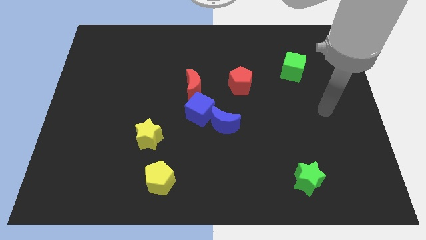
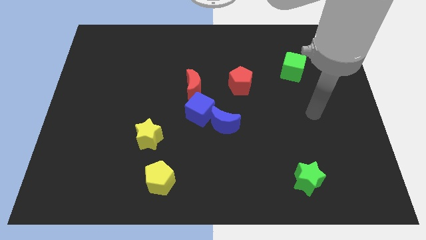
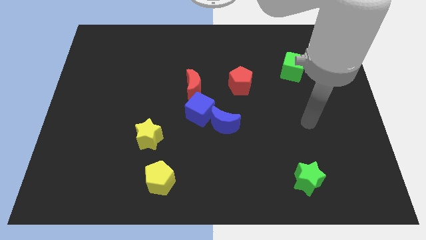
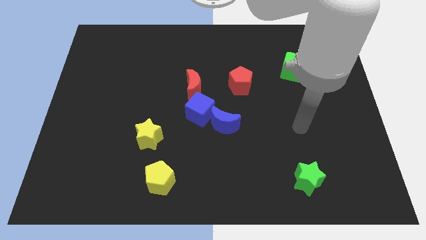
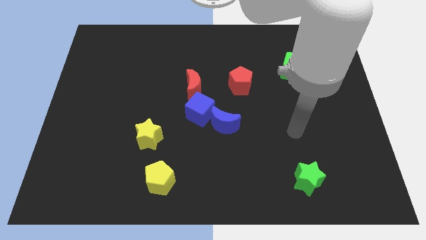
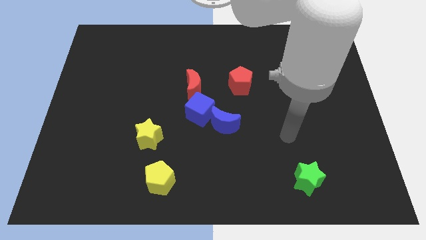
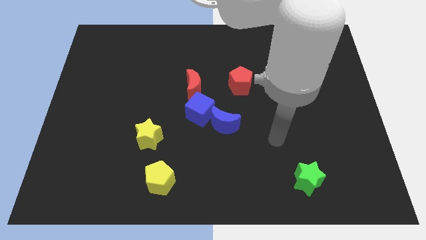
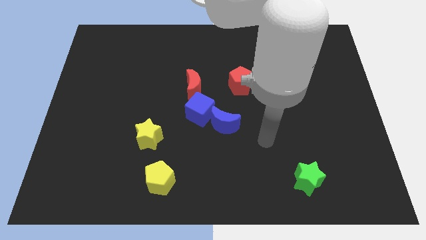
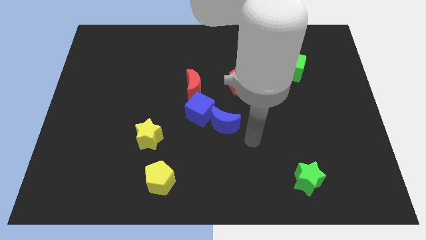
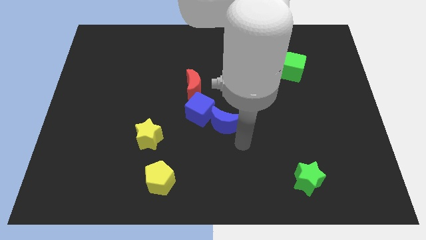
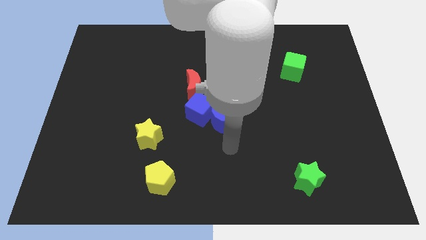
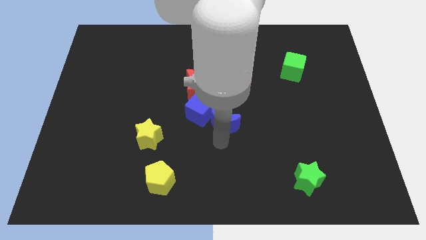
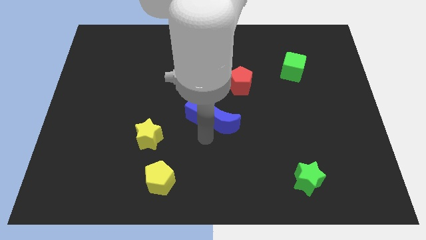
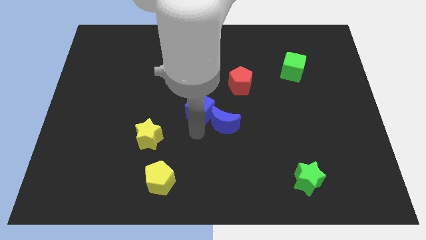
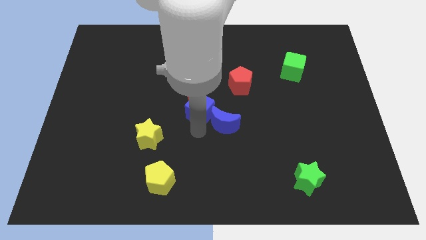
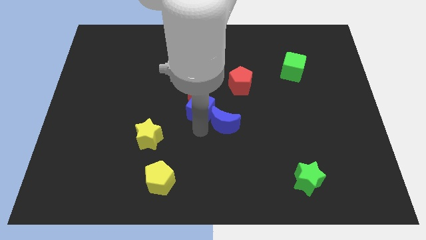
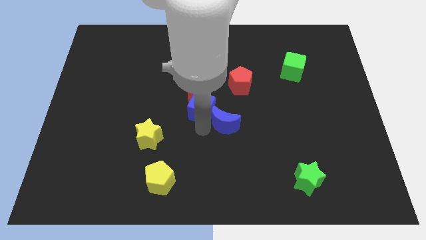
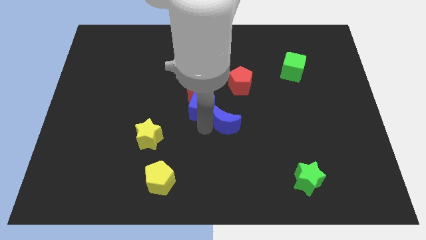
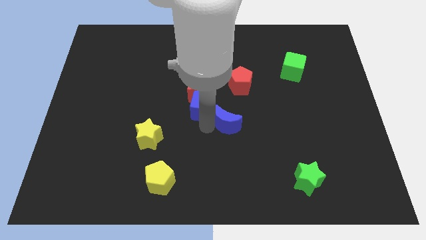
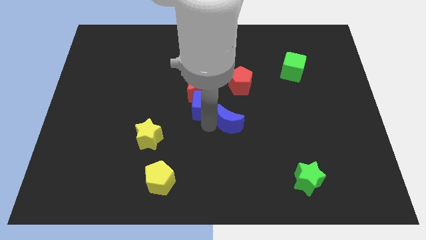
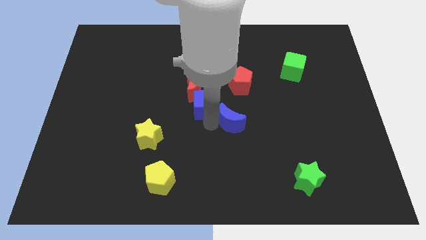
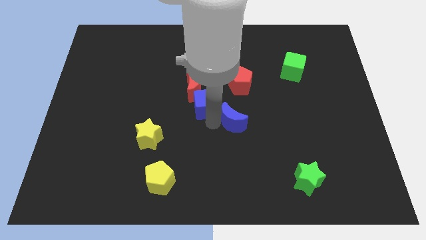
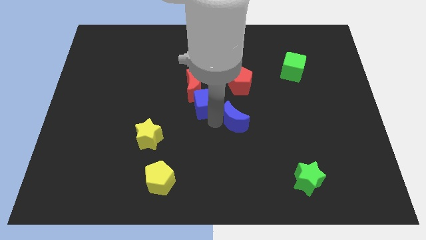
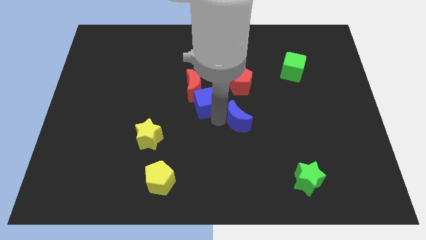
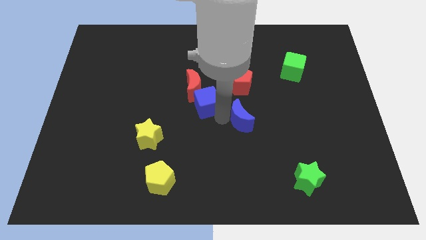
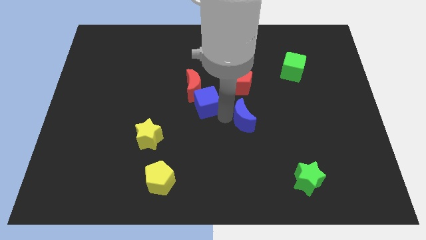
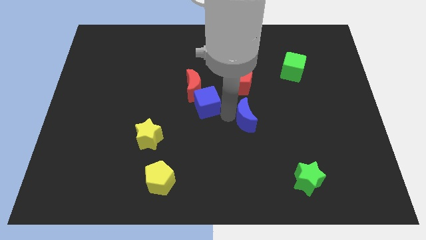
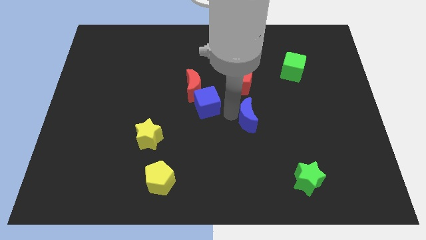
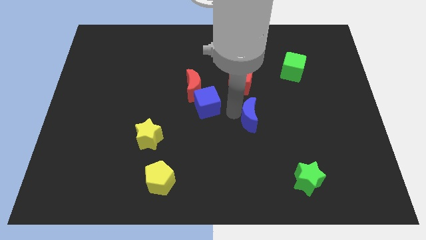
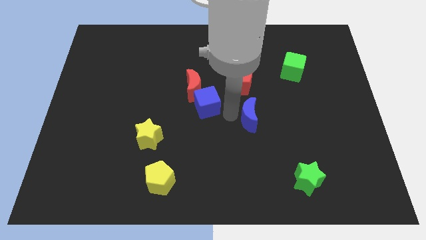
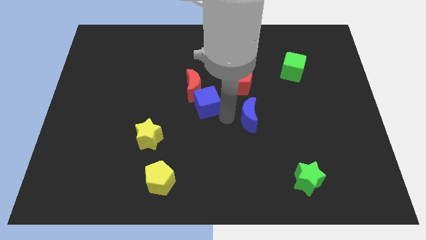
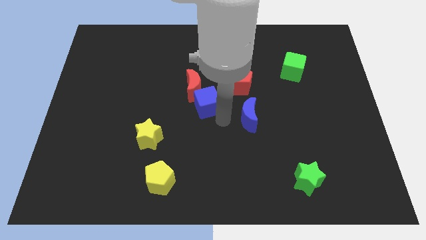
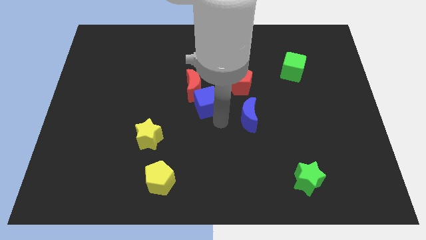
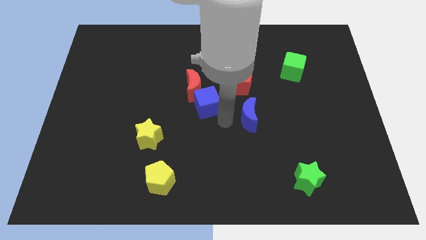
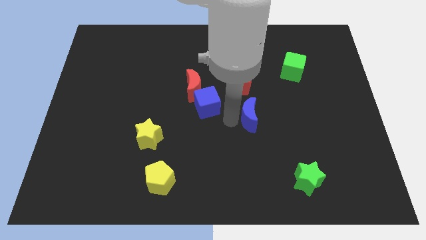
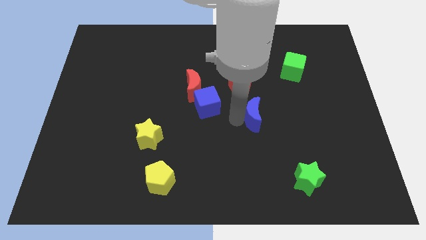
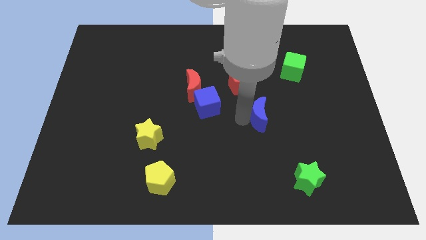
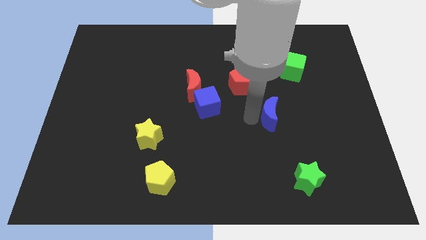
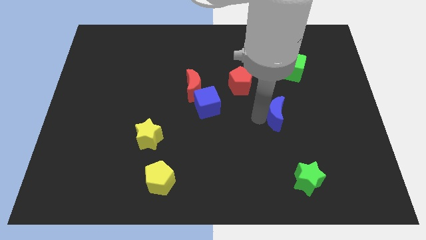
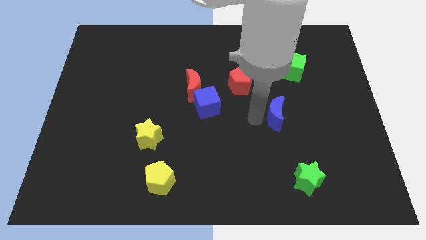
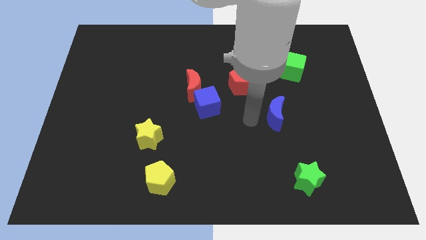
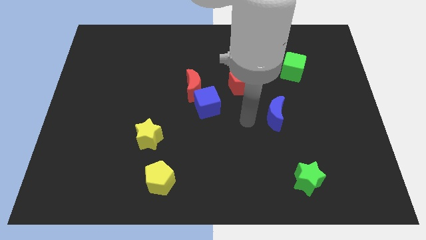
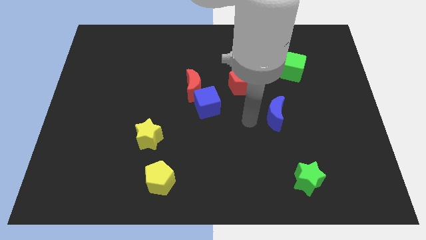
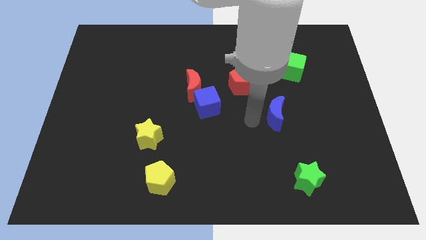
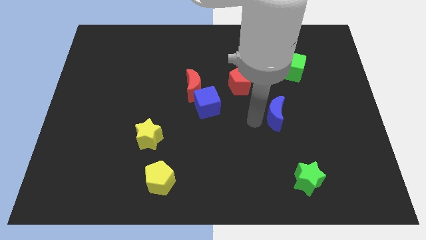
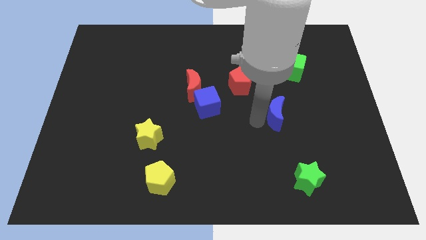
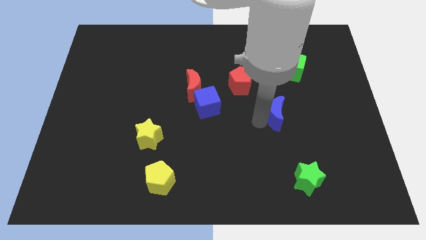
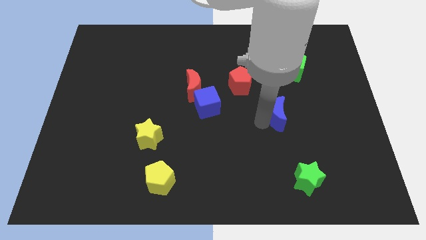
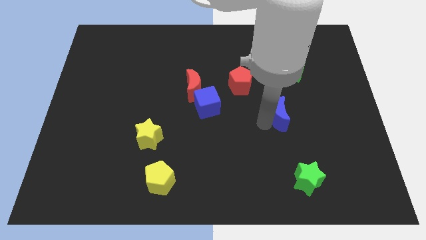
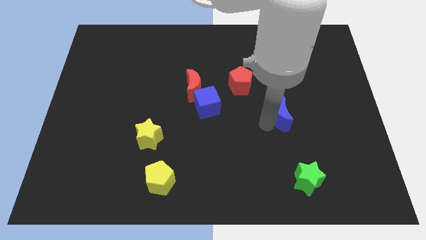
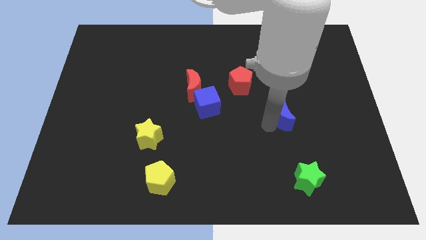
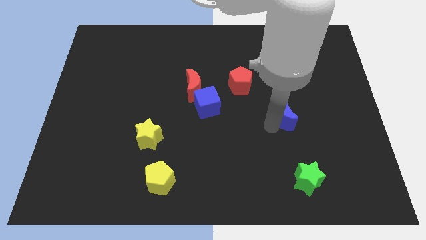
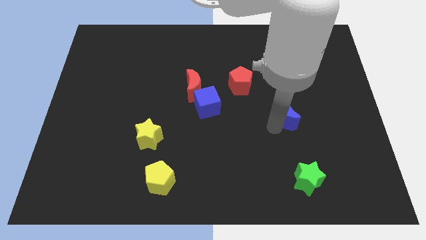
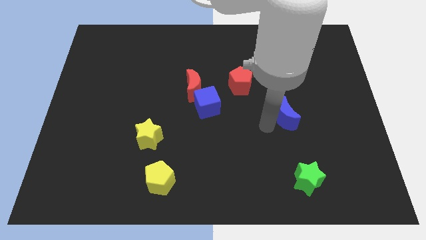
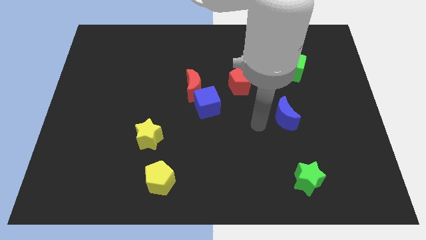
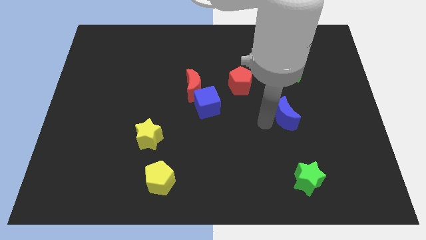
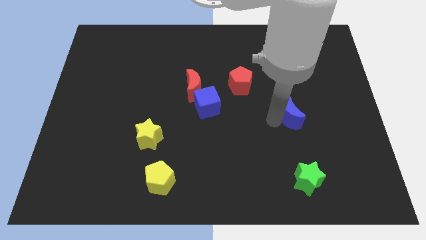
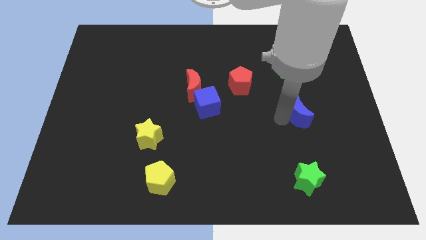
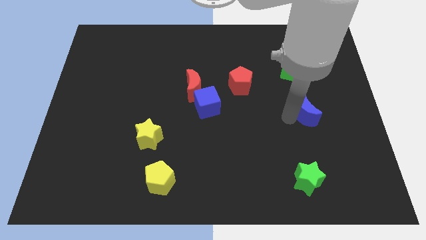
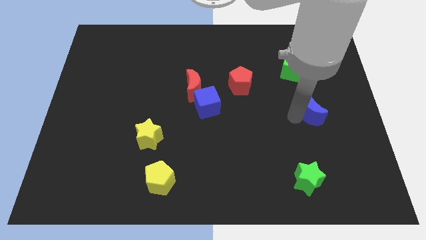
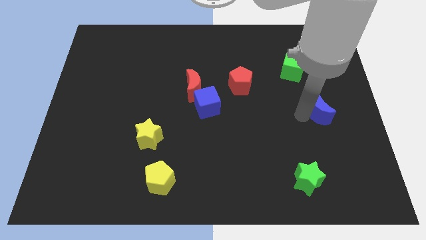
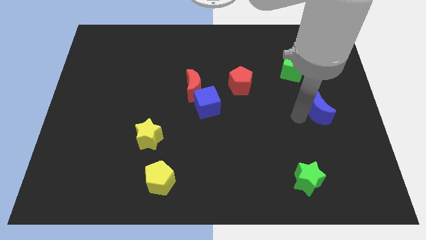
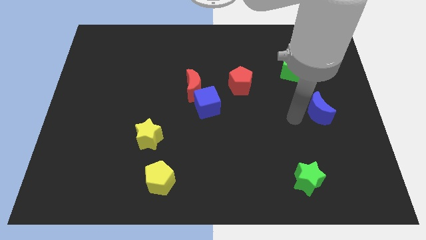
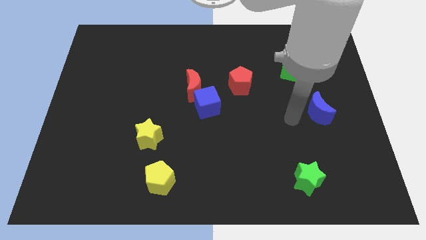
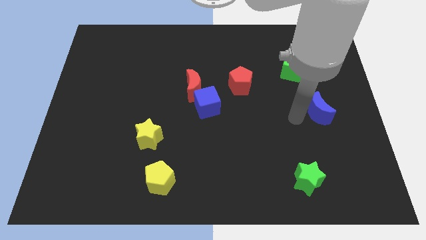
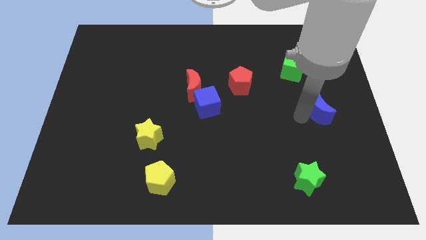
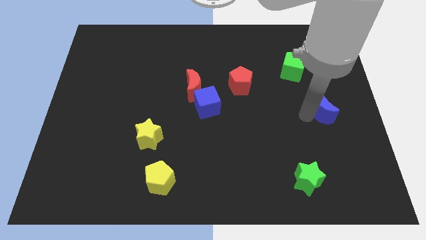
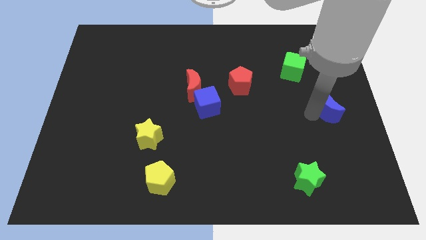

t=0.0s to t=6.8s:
slide the blue moon to the right side
